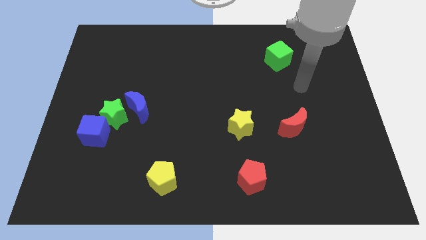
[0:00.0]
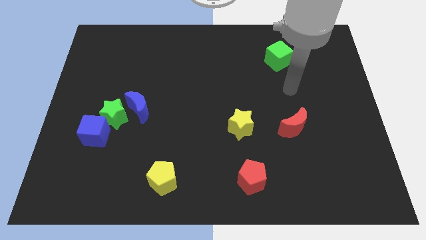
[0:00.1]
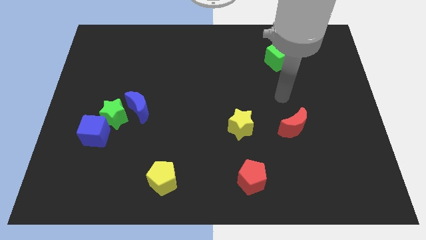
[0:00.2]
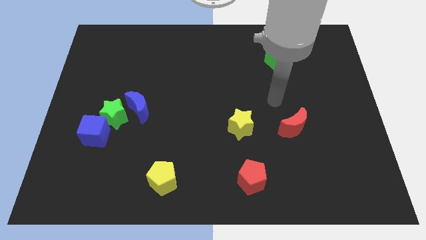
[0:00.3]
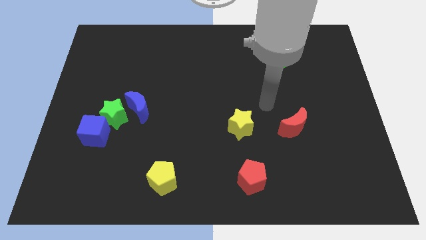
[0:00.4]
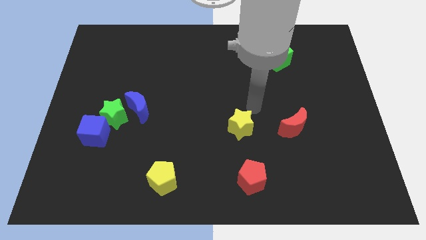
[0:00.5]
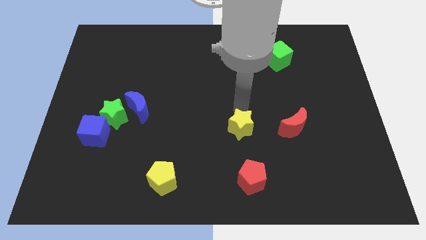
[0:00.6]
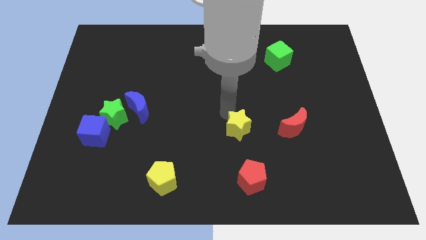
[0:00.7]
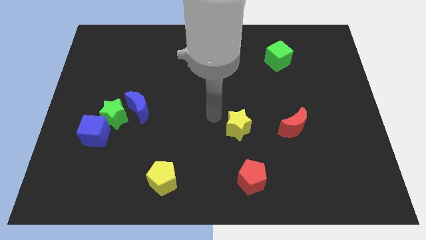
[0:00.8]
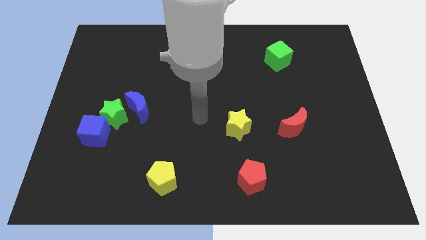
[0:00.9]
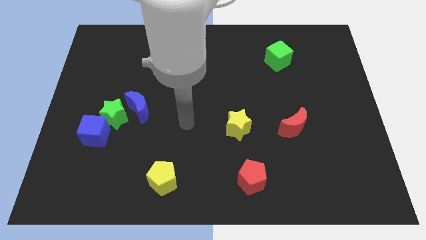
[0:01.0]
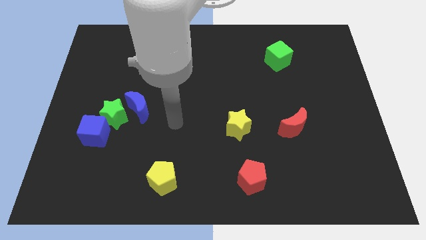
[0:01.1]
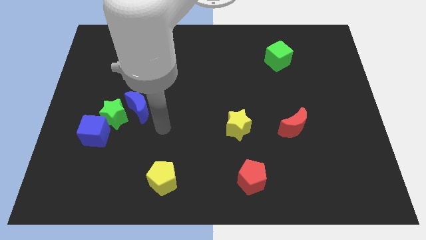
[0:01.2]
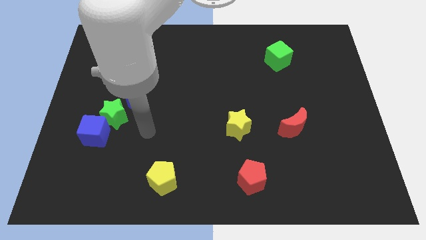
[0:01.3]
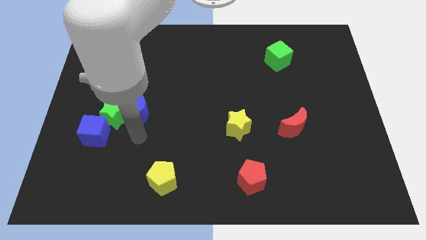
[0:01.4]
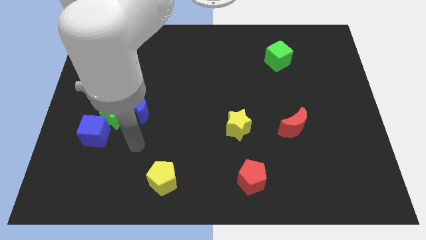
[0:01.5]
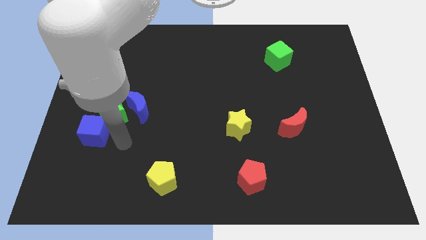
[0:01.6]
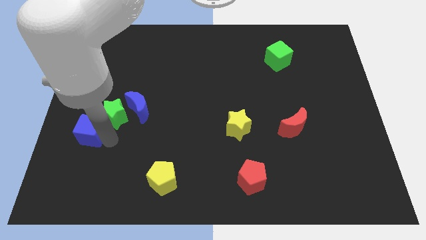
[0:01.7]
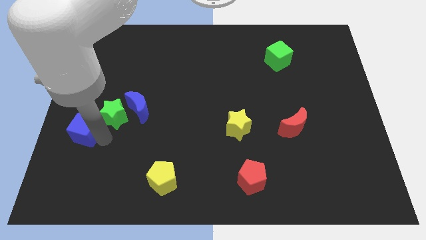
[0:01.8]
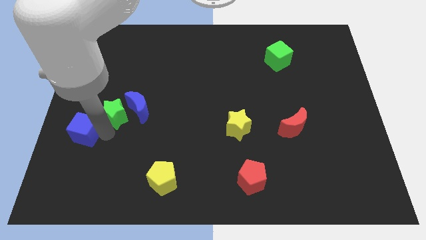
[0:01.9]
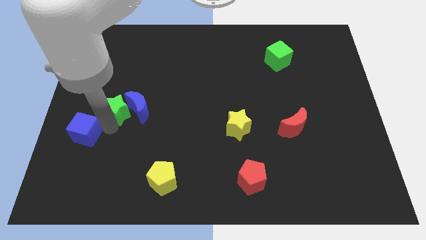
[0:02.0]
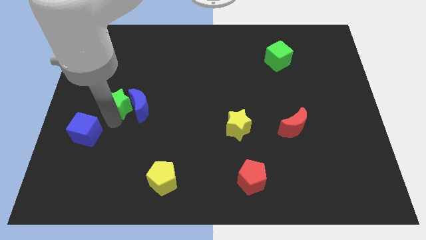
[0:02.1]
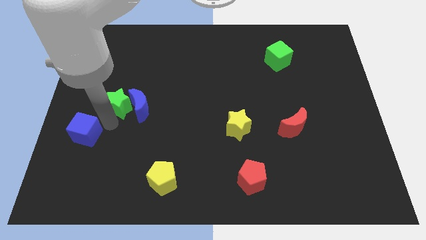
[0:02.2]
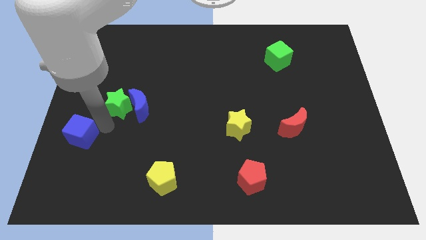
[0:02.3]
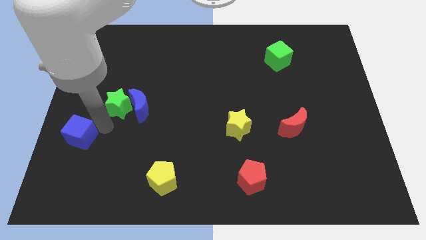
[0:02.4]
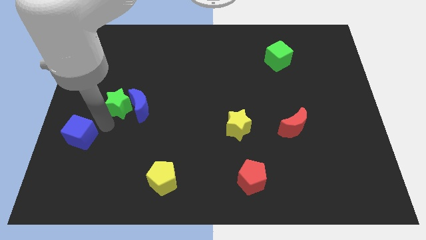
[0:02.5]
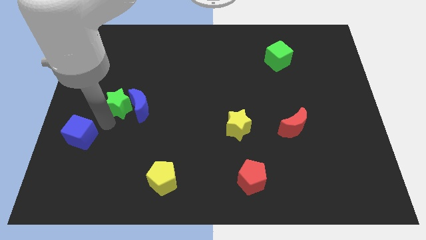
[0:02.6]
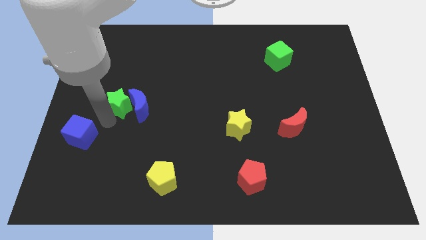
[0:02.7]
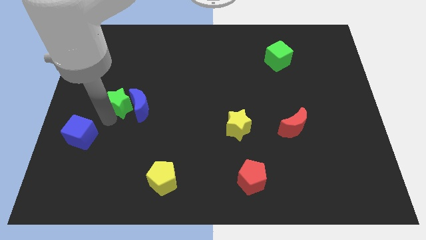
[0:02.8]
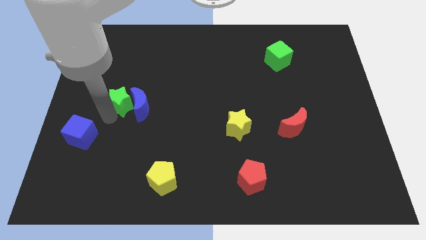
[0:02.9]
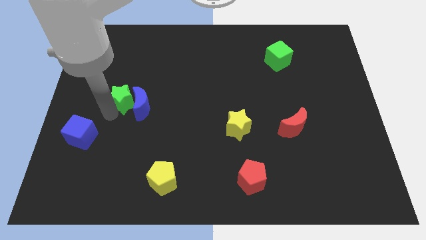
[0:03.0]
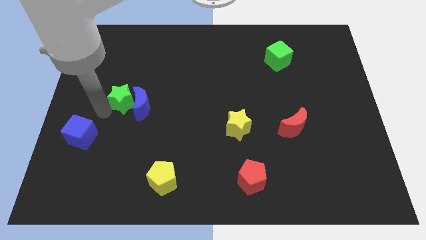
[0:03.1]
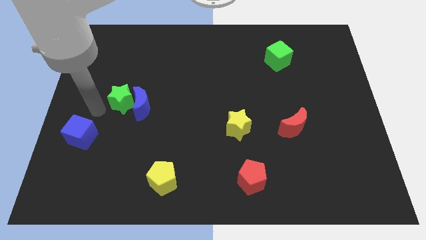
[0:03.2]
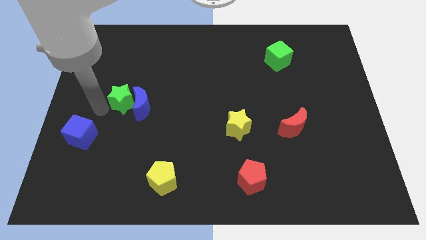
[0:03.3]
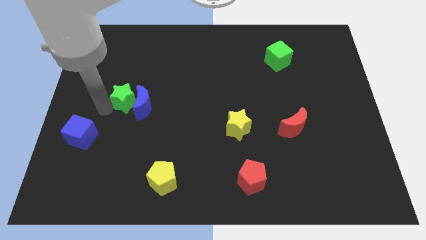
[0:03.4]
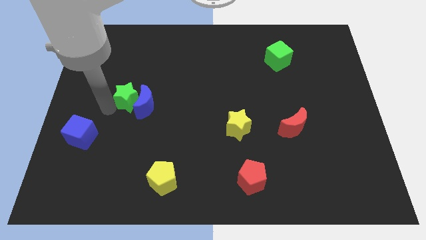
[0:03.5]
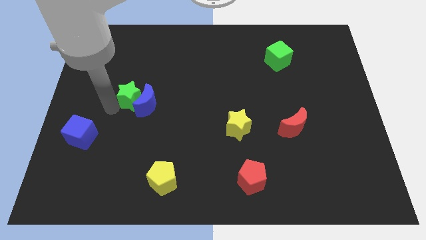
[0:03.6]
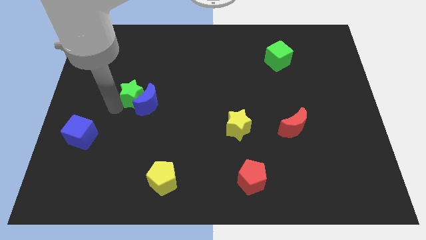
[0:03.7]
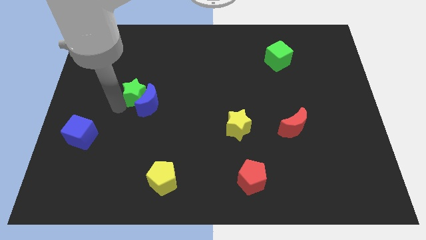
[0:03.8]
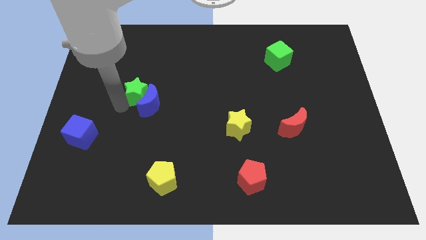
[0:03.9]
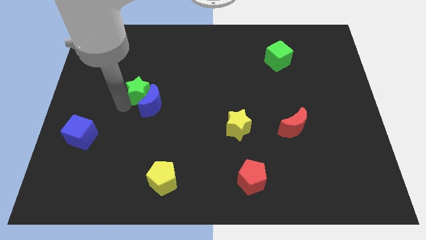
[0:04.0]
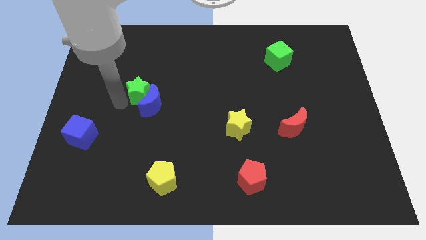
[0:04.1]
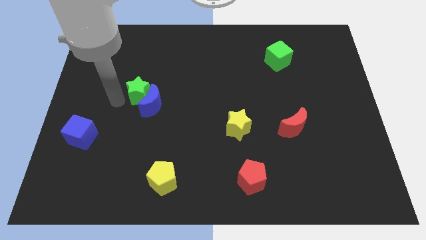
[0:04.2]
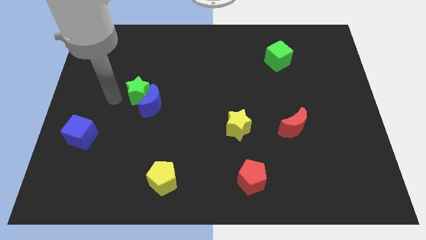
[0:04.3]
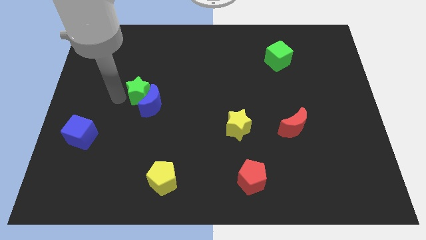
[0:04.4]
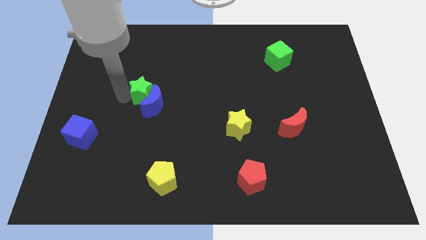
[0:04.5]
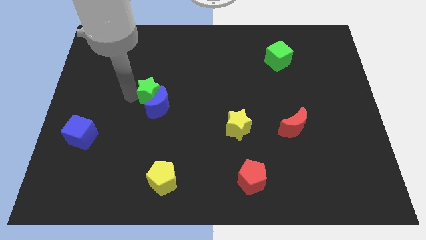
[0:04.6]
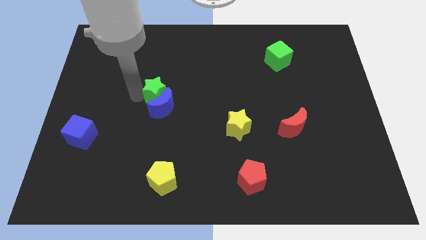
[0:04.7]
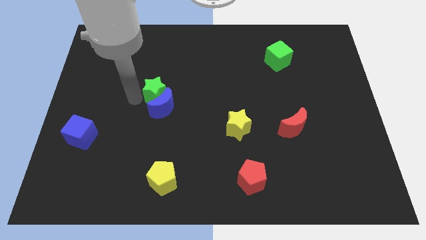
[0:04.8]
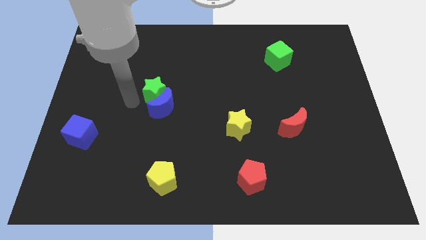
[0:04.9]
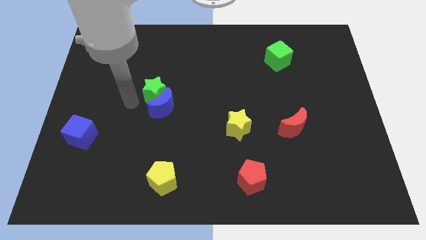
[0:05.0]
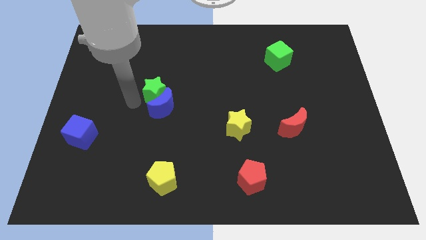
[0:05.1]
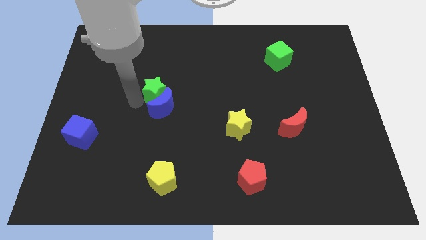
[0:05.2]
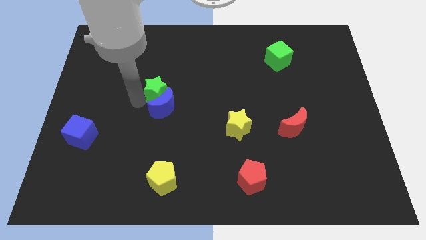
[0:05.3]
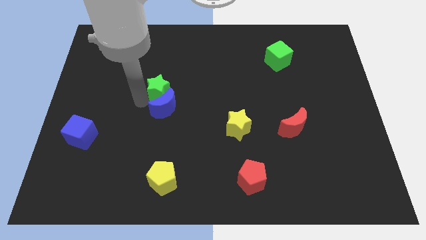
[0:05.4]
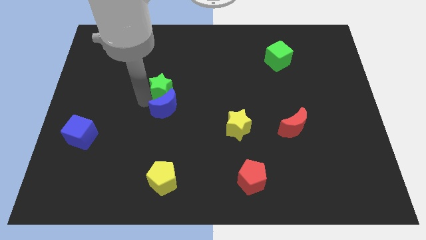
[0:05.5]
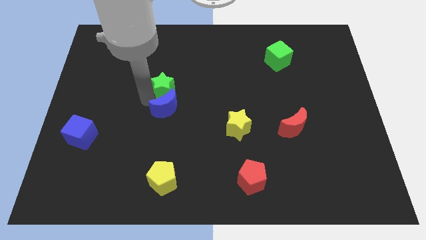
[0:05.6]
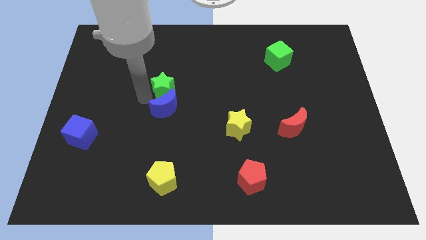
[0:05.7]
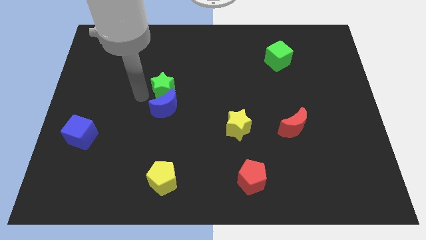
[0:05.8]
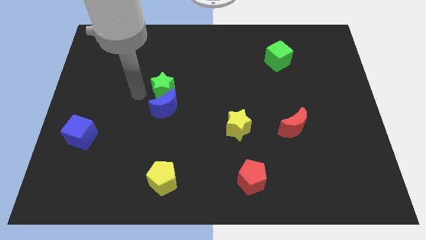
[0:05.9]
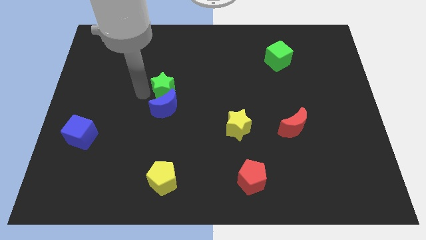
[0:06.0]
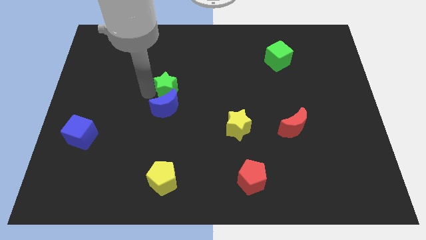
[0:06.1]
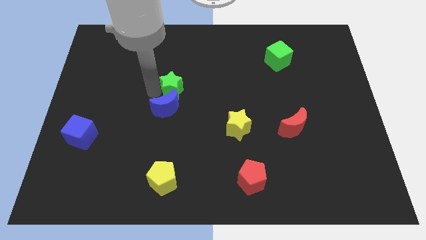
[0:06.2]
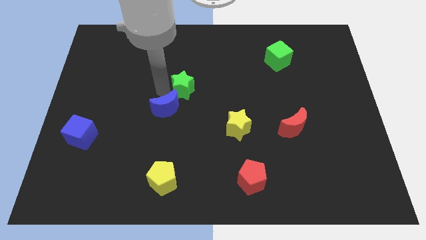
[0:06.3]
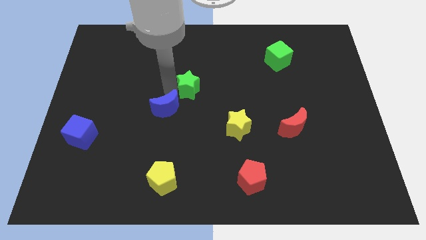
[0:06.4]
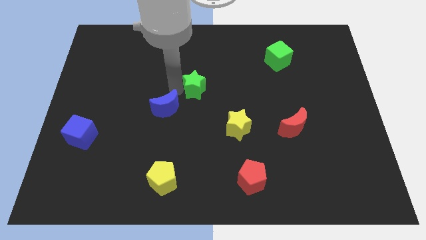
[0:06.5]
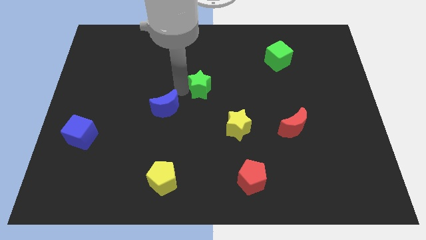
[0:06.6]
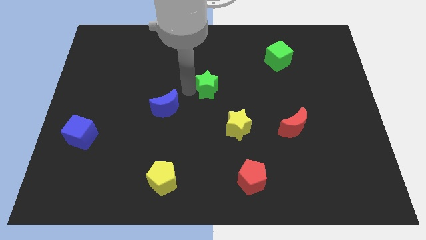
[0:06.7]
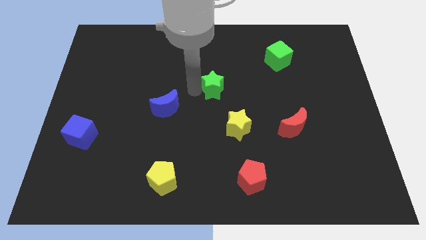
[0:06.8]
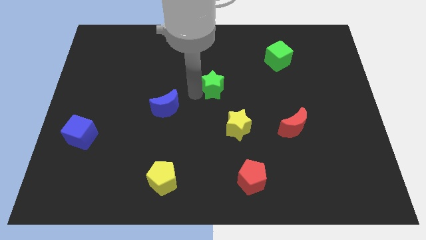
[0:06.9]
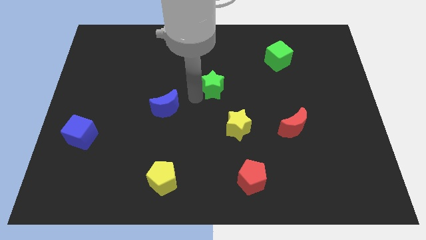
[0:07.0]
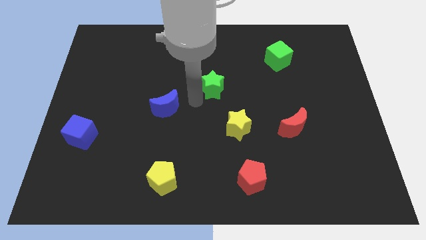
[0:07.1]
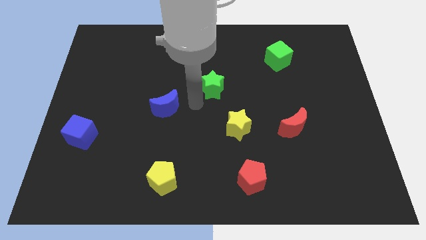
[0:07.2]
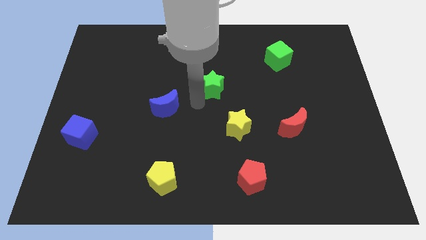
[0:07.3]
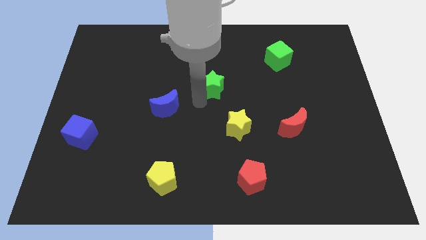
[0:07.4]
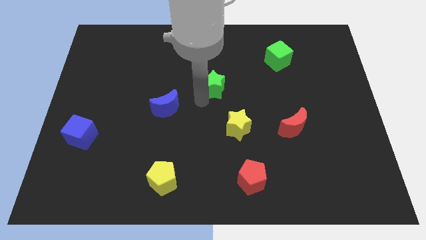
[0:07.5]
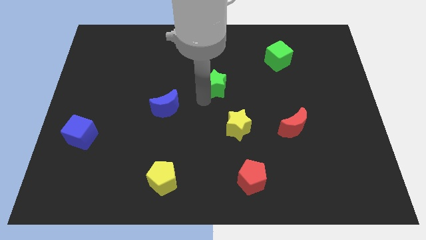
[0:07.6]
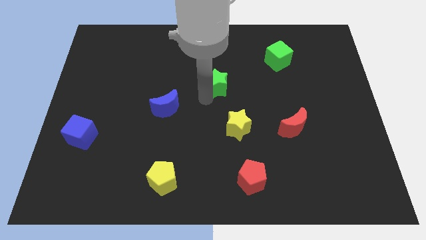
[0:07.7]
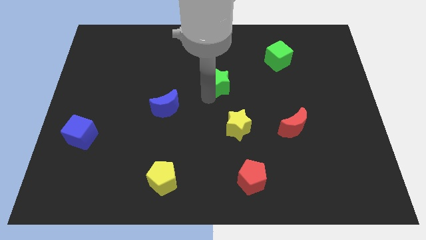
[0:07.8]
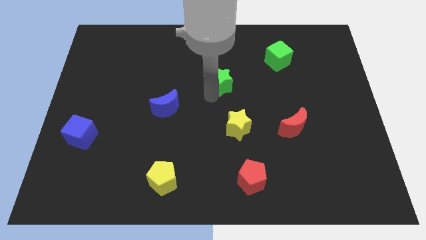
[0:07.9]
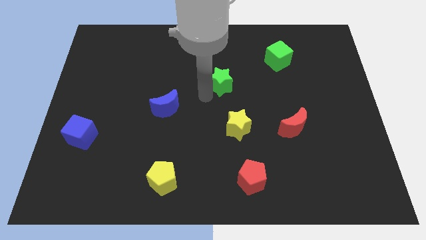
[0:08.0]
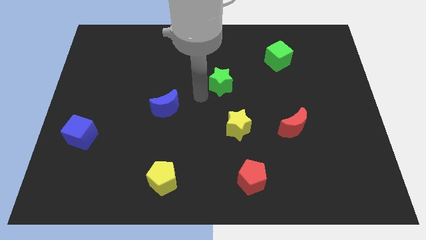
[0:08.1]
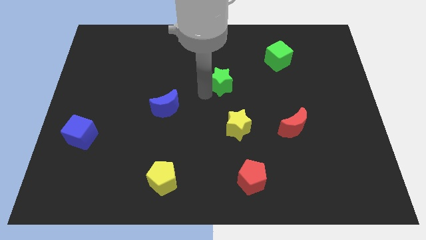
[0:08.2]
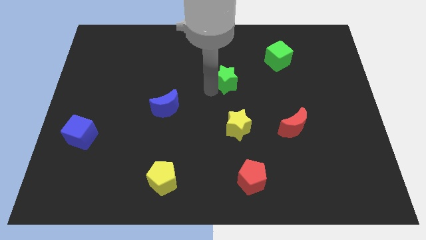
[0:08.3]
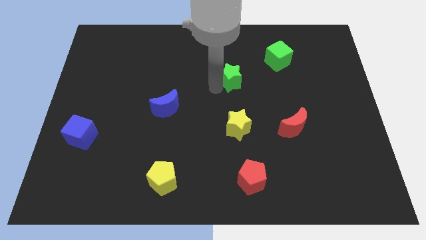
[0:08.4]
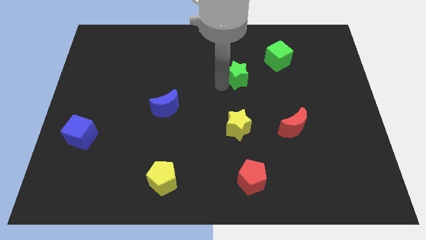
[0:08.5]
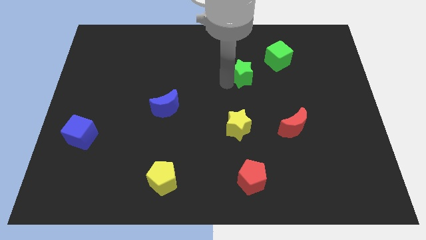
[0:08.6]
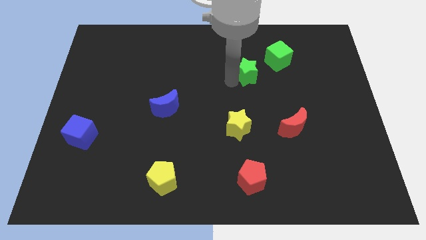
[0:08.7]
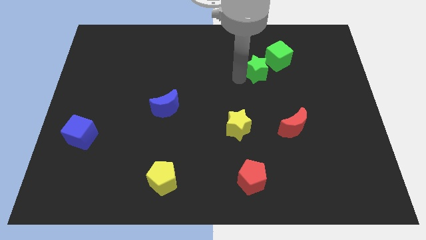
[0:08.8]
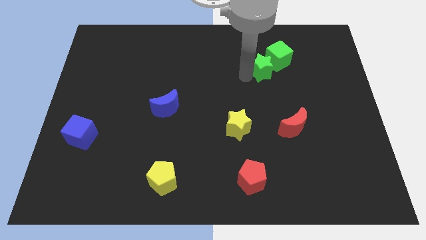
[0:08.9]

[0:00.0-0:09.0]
slide the green star close to the green cube
